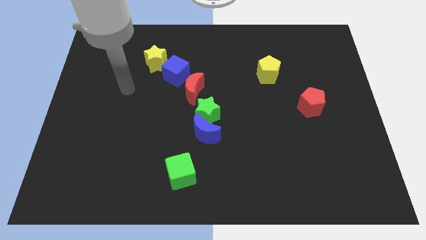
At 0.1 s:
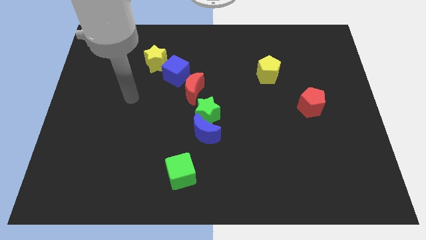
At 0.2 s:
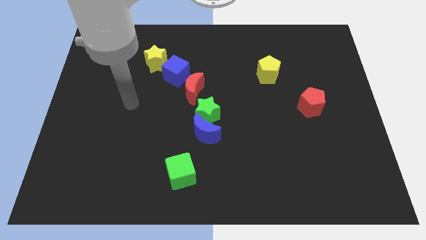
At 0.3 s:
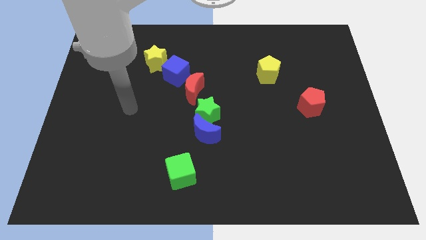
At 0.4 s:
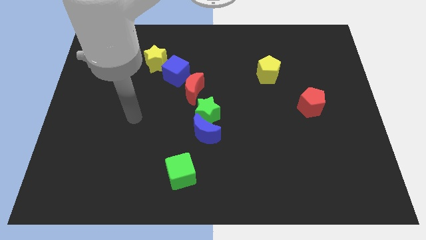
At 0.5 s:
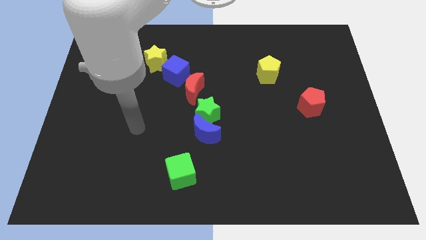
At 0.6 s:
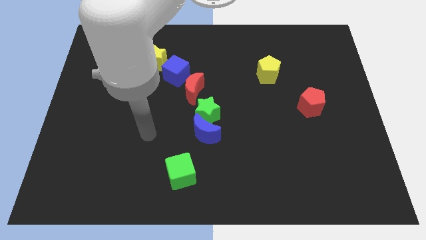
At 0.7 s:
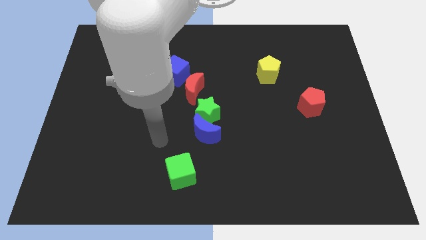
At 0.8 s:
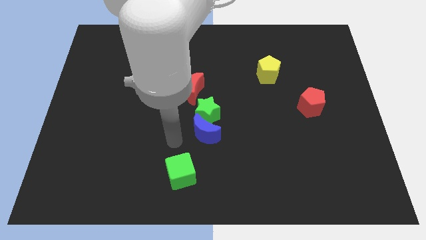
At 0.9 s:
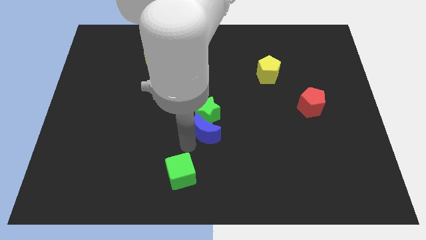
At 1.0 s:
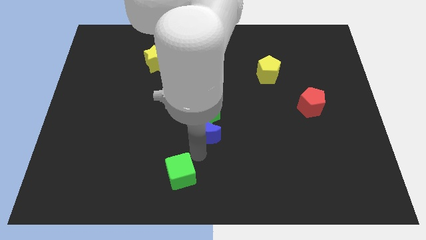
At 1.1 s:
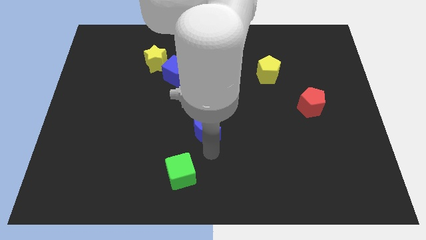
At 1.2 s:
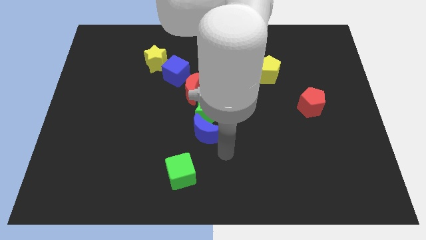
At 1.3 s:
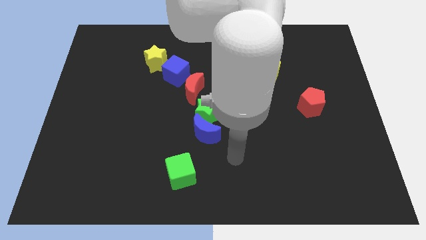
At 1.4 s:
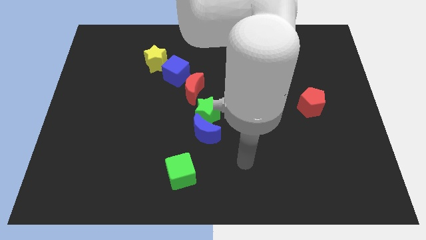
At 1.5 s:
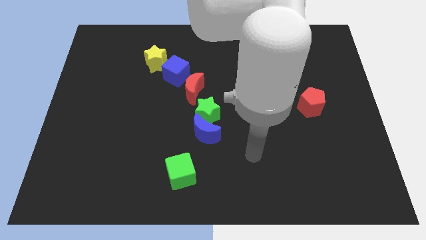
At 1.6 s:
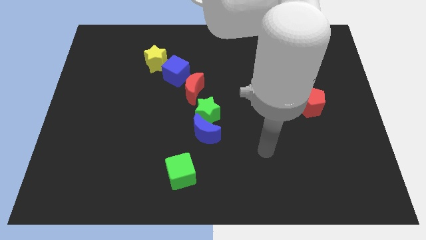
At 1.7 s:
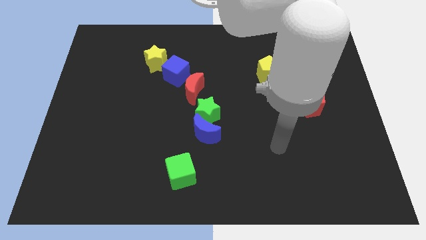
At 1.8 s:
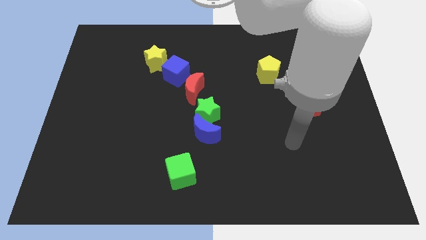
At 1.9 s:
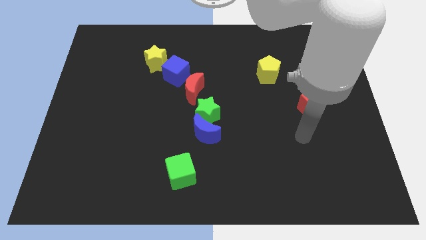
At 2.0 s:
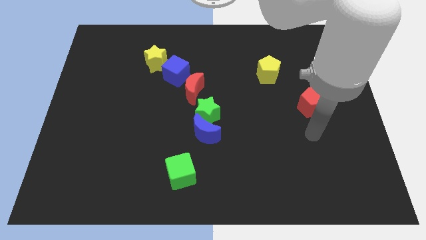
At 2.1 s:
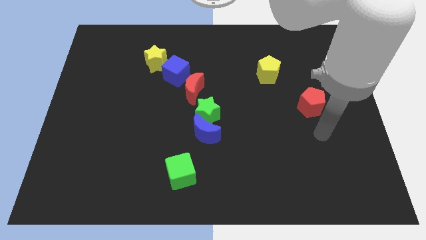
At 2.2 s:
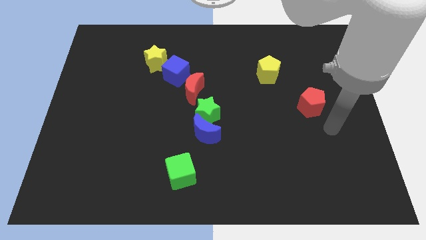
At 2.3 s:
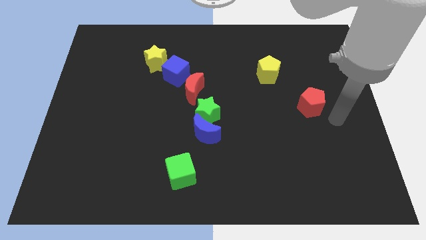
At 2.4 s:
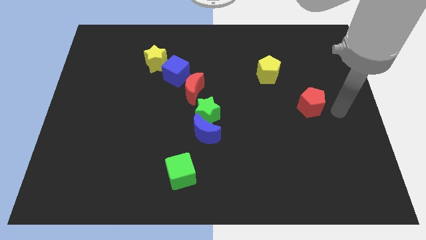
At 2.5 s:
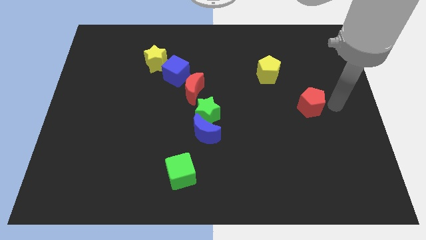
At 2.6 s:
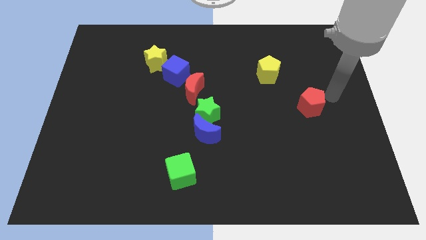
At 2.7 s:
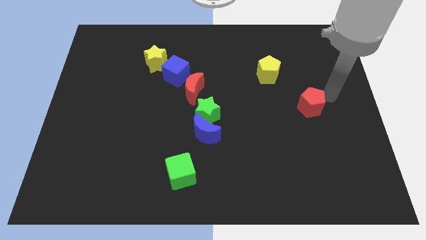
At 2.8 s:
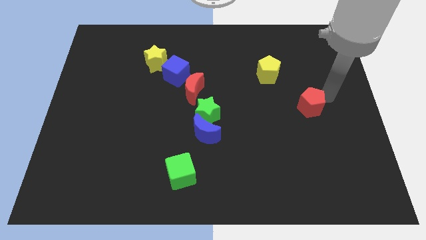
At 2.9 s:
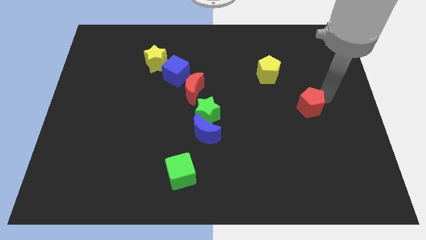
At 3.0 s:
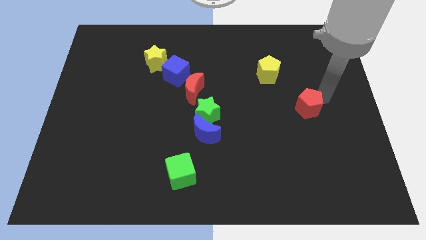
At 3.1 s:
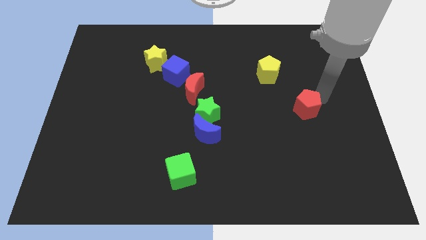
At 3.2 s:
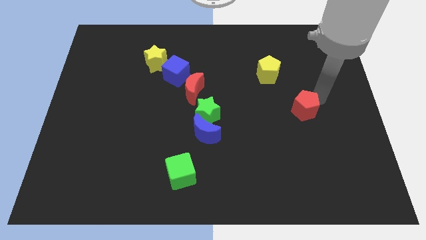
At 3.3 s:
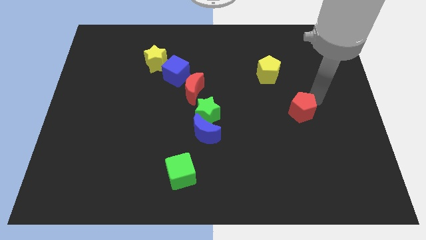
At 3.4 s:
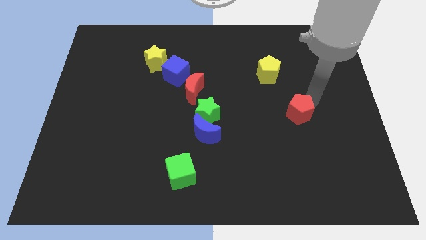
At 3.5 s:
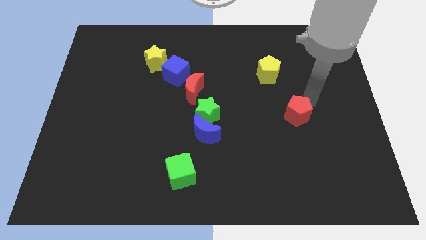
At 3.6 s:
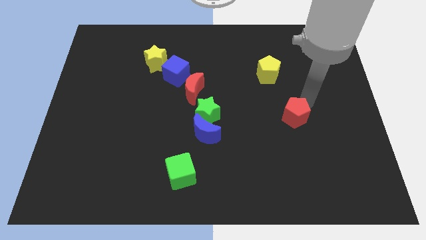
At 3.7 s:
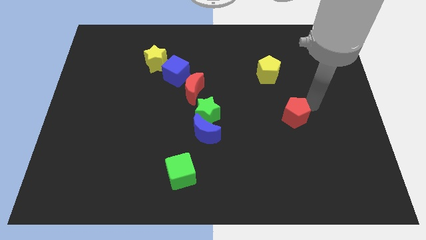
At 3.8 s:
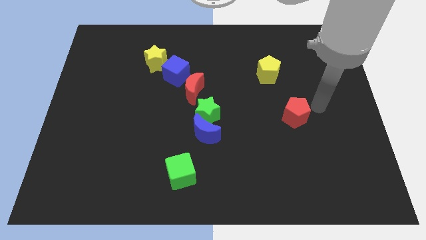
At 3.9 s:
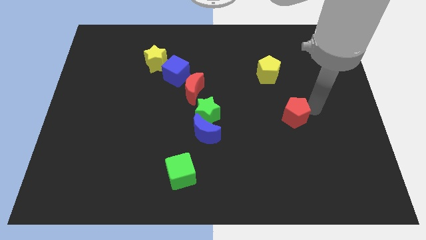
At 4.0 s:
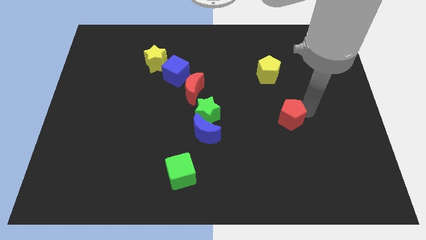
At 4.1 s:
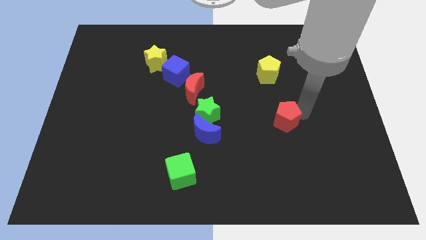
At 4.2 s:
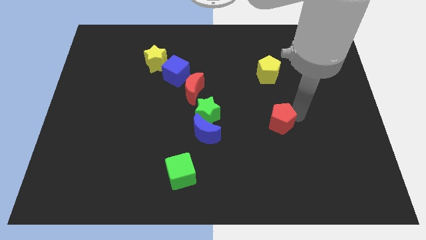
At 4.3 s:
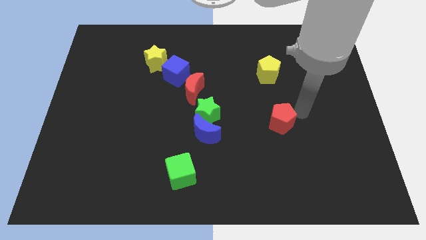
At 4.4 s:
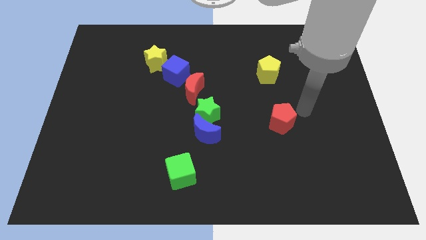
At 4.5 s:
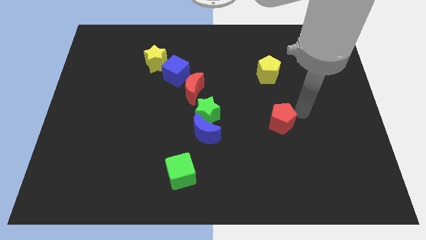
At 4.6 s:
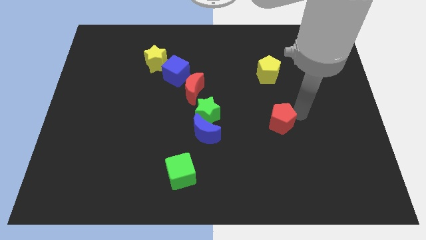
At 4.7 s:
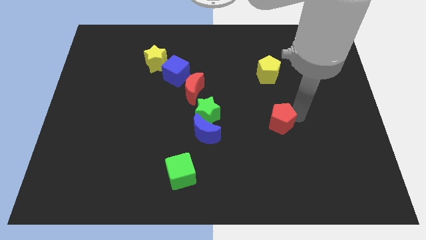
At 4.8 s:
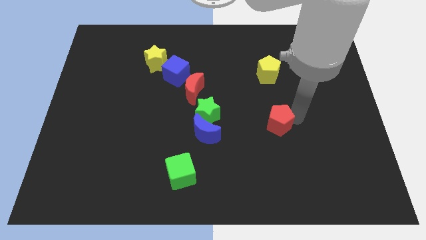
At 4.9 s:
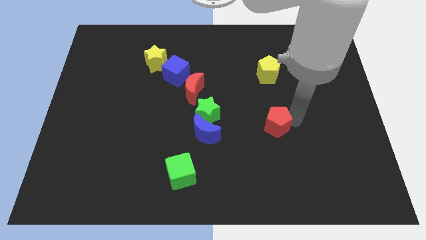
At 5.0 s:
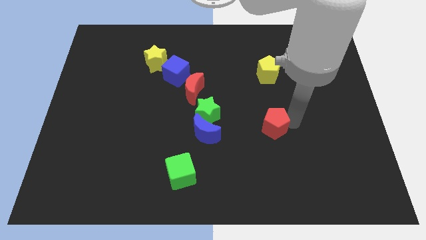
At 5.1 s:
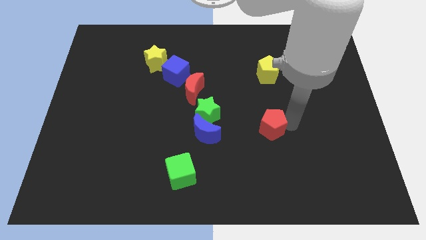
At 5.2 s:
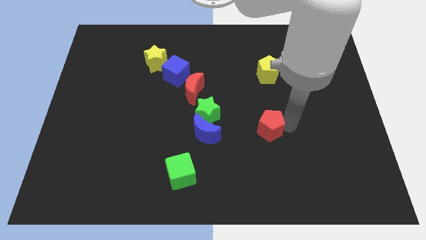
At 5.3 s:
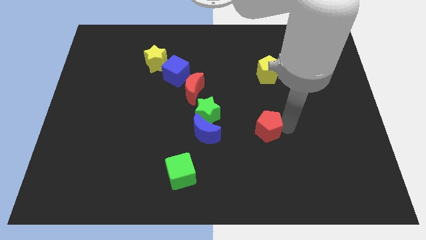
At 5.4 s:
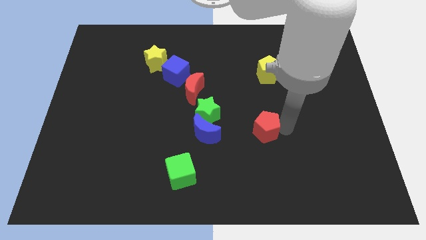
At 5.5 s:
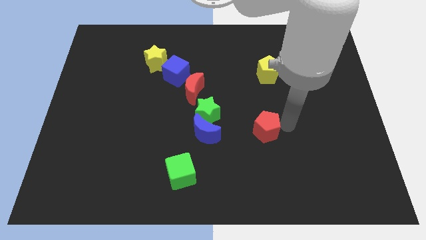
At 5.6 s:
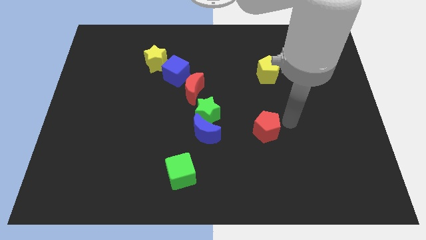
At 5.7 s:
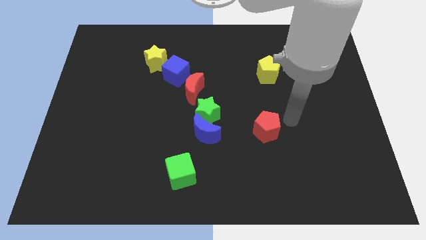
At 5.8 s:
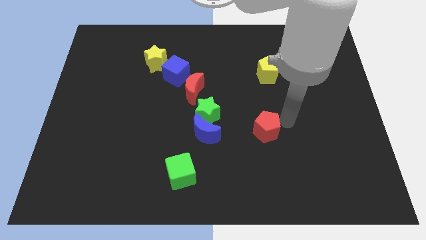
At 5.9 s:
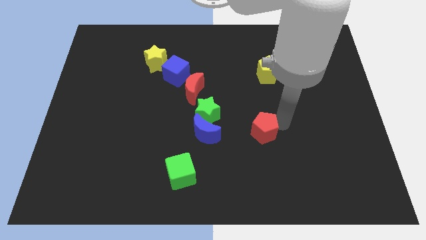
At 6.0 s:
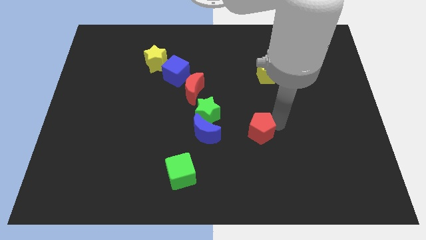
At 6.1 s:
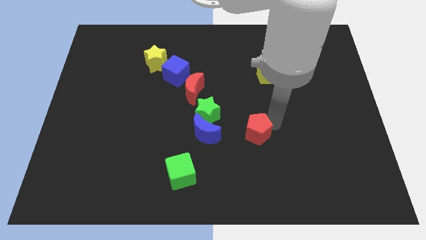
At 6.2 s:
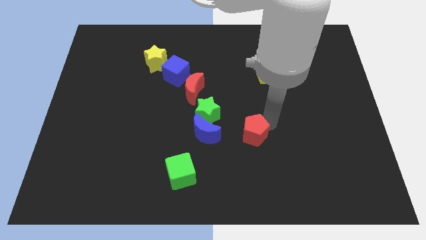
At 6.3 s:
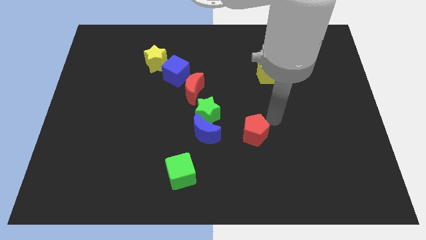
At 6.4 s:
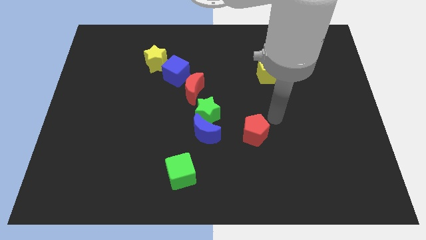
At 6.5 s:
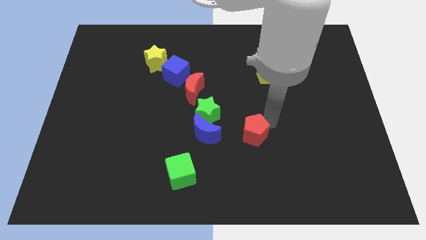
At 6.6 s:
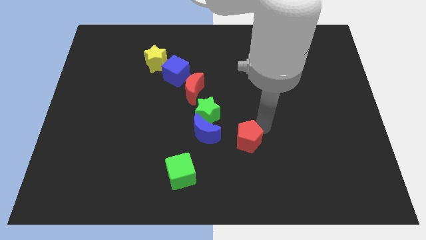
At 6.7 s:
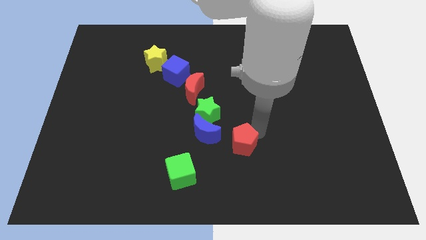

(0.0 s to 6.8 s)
move the red pentagon to the bottom right of the blue moon
